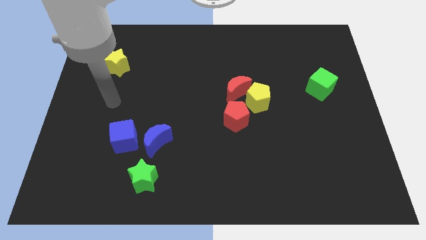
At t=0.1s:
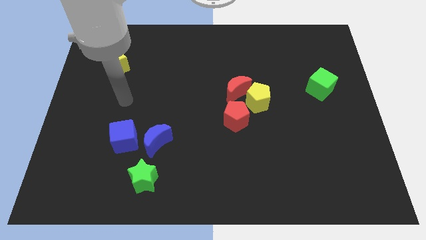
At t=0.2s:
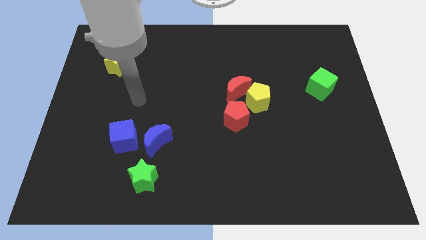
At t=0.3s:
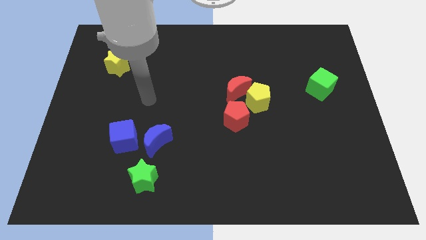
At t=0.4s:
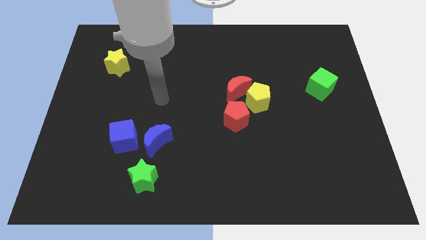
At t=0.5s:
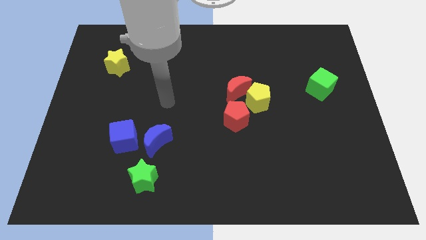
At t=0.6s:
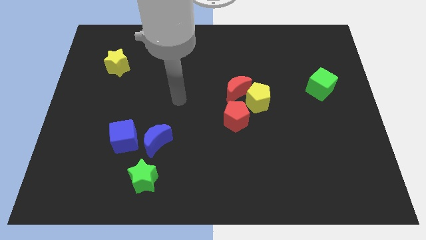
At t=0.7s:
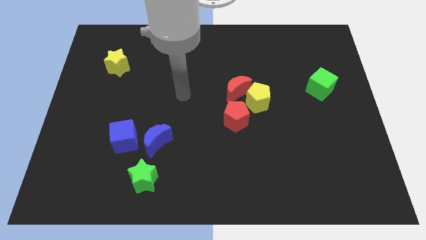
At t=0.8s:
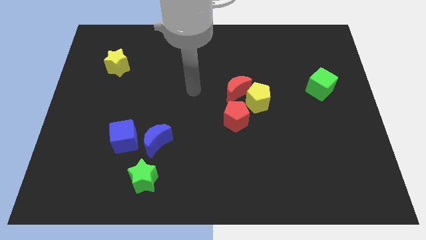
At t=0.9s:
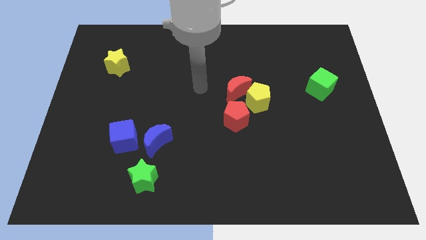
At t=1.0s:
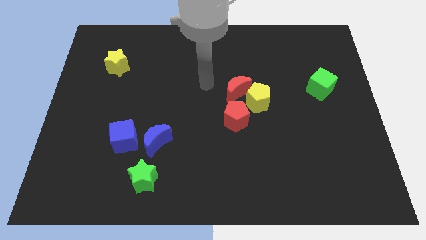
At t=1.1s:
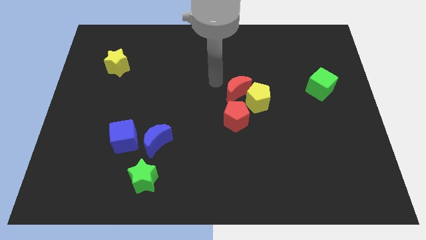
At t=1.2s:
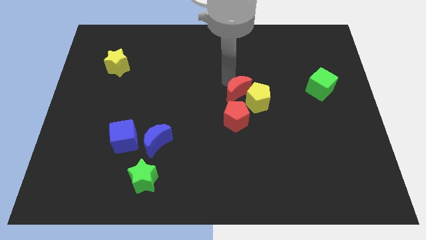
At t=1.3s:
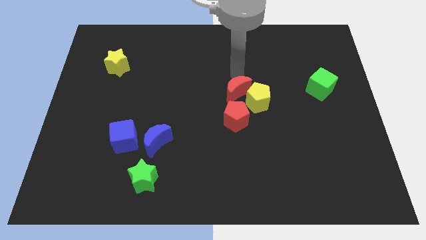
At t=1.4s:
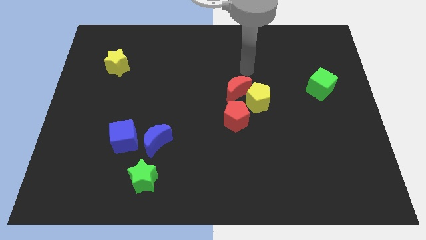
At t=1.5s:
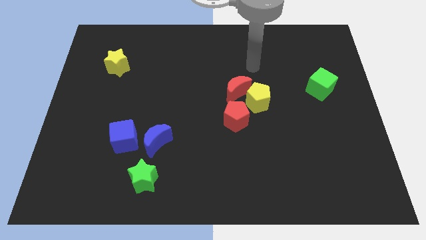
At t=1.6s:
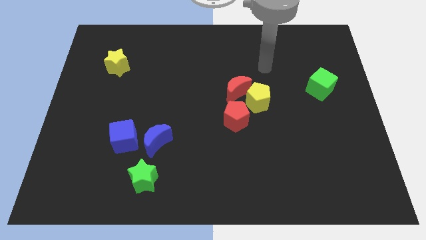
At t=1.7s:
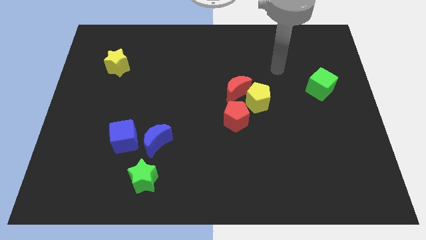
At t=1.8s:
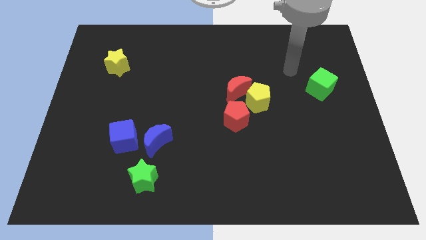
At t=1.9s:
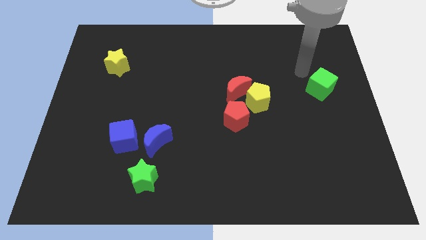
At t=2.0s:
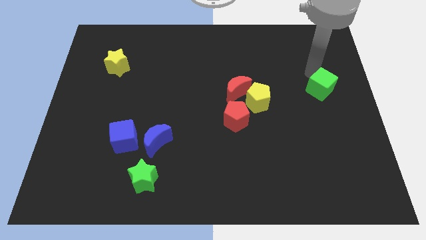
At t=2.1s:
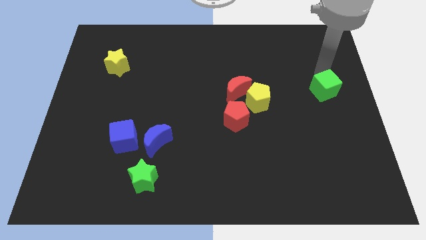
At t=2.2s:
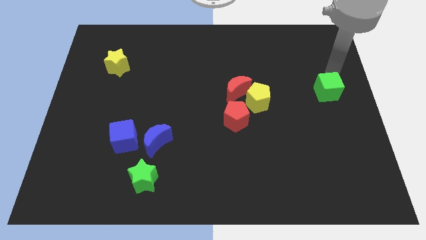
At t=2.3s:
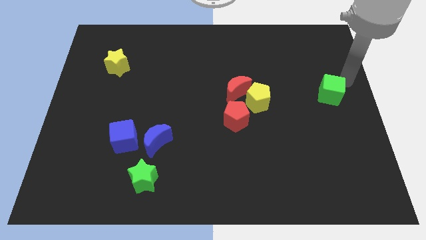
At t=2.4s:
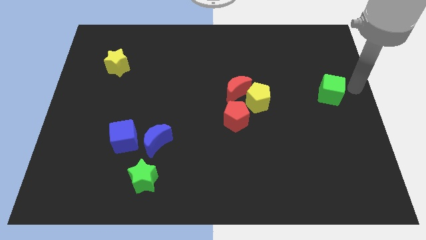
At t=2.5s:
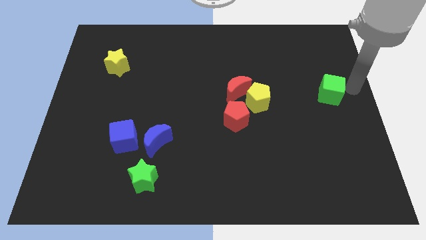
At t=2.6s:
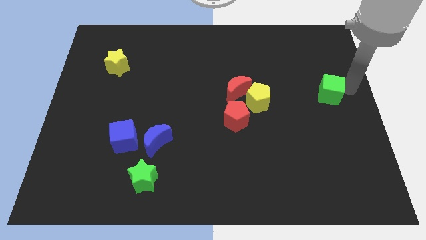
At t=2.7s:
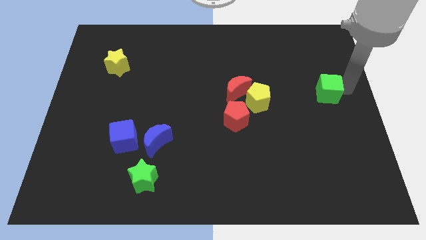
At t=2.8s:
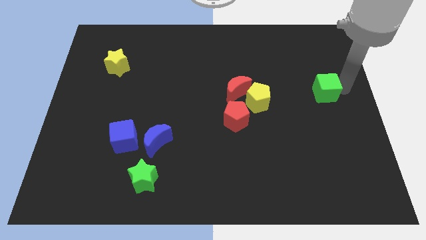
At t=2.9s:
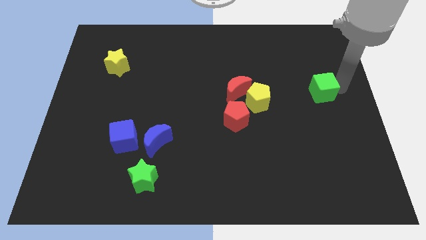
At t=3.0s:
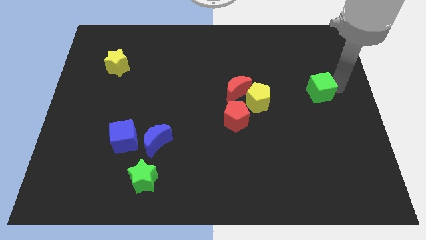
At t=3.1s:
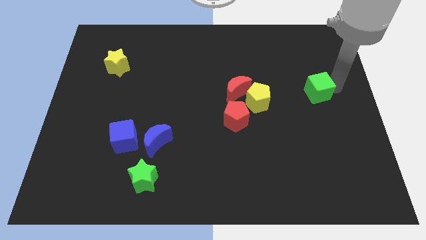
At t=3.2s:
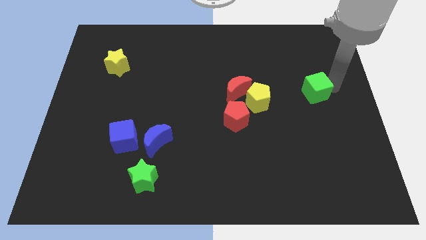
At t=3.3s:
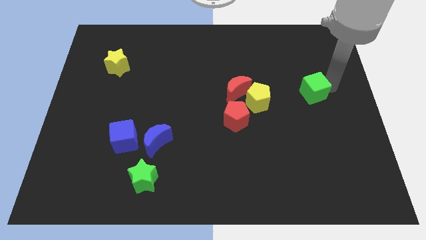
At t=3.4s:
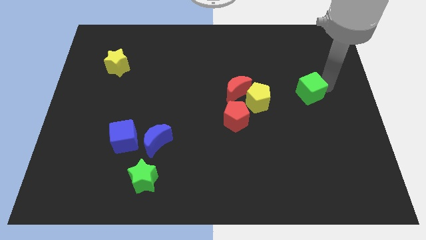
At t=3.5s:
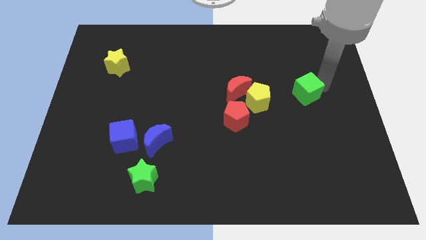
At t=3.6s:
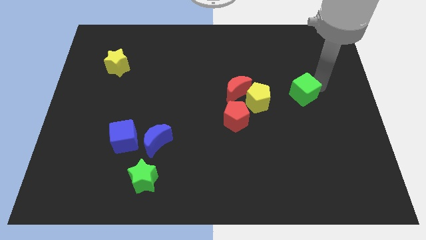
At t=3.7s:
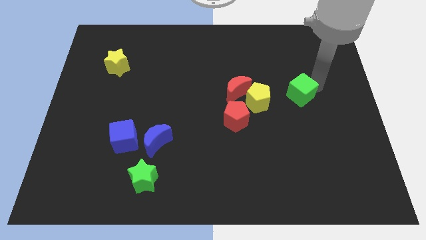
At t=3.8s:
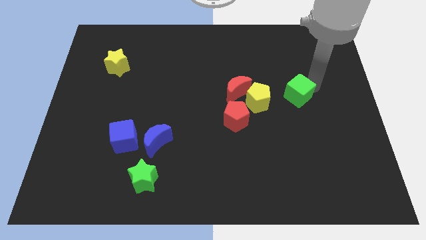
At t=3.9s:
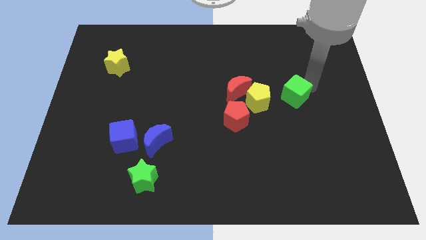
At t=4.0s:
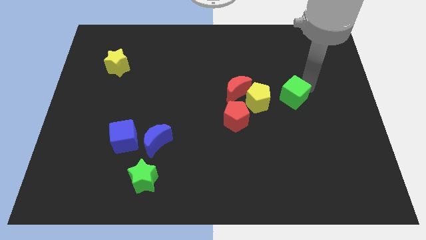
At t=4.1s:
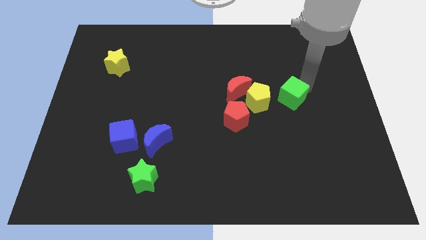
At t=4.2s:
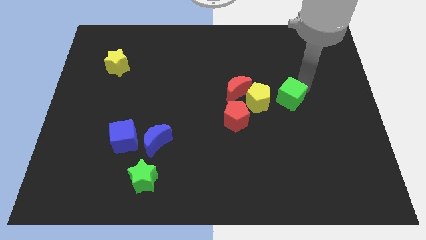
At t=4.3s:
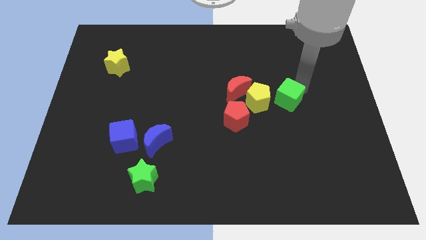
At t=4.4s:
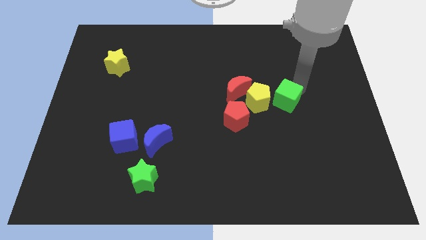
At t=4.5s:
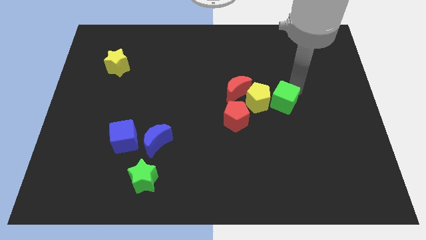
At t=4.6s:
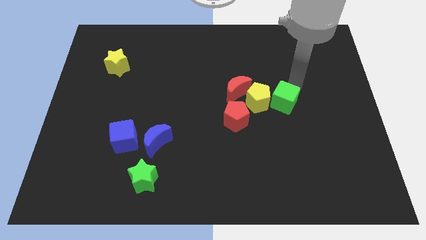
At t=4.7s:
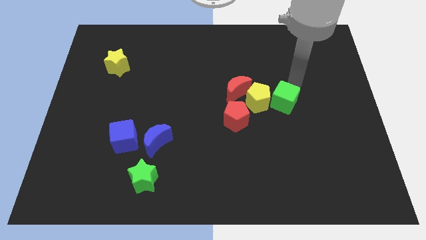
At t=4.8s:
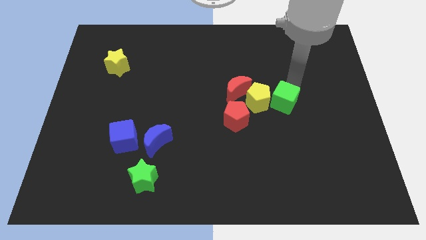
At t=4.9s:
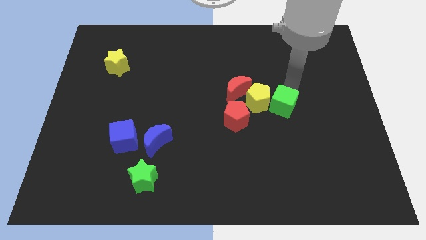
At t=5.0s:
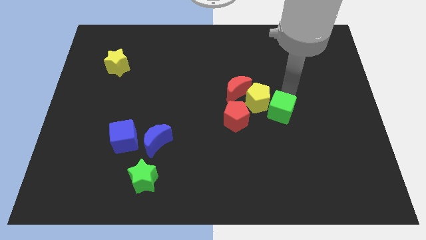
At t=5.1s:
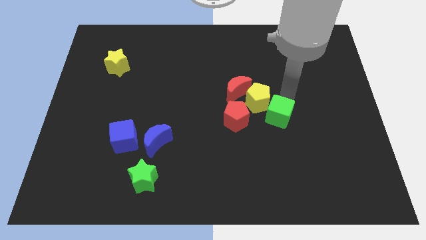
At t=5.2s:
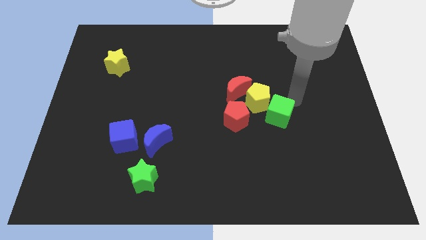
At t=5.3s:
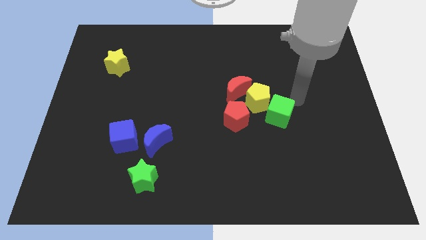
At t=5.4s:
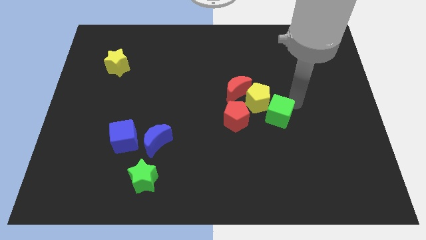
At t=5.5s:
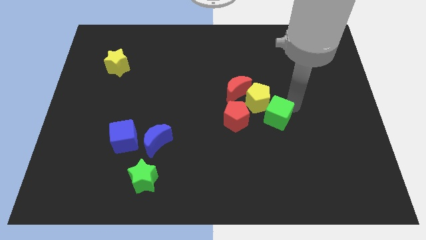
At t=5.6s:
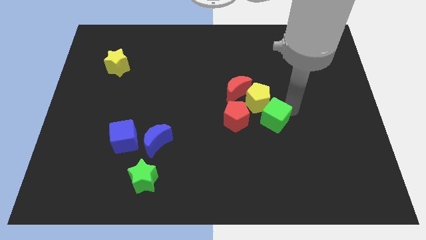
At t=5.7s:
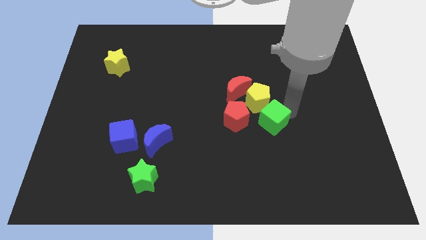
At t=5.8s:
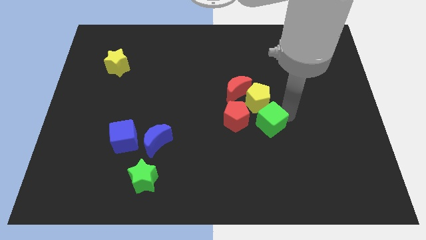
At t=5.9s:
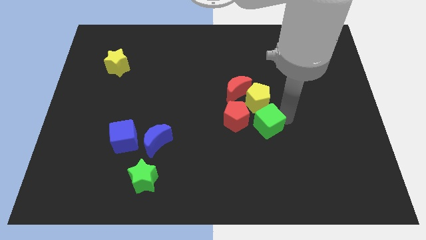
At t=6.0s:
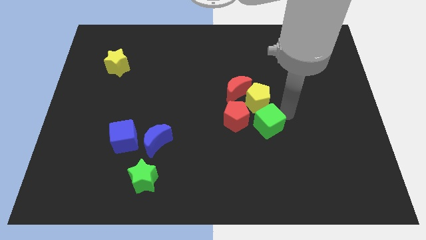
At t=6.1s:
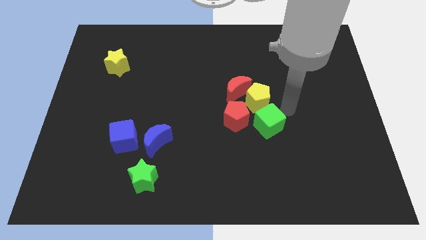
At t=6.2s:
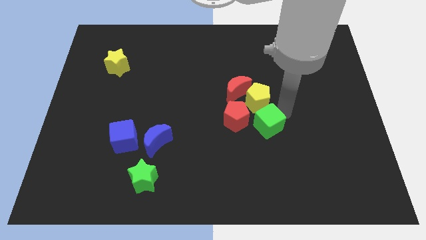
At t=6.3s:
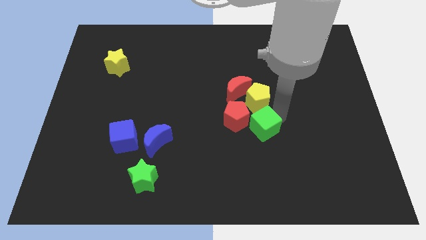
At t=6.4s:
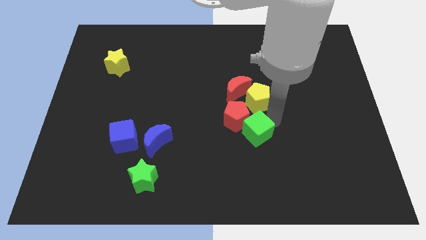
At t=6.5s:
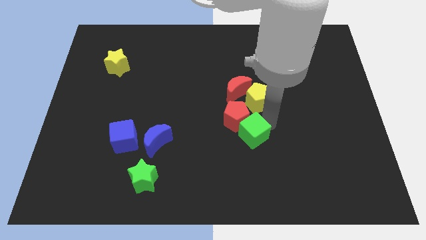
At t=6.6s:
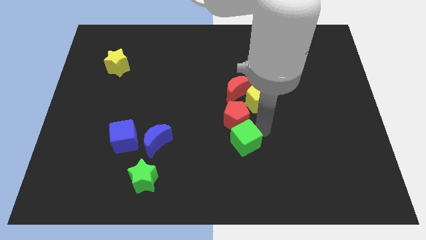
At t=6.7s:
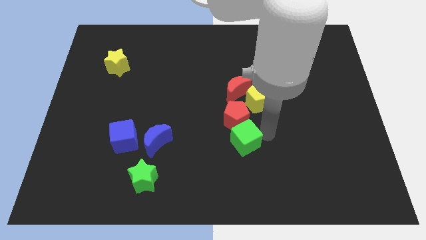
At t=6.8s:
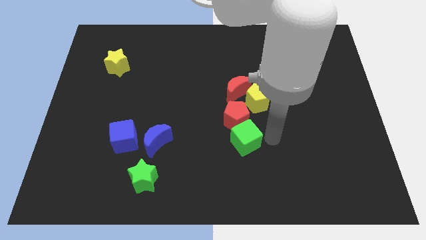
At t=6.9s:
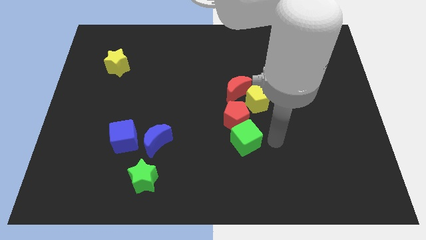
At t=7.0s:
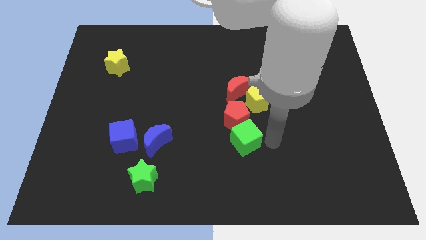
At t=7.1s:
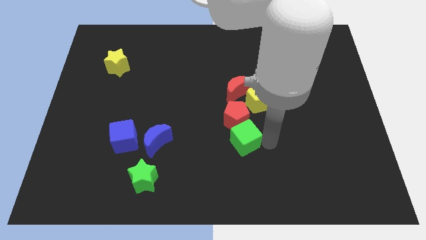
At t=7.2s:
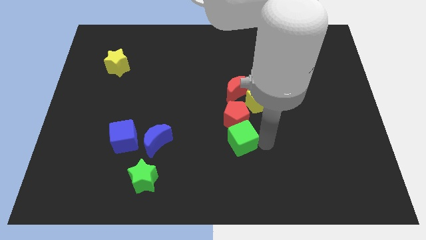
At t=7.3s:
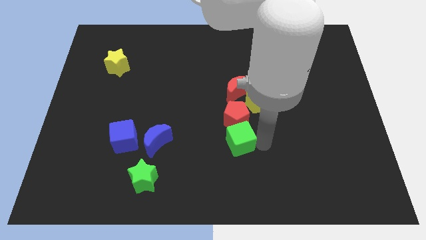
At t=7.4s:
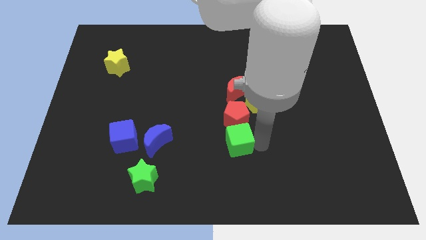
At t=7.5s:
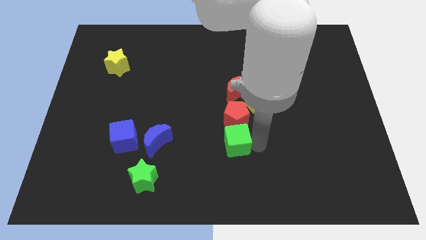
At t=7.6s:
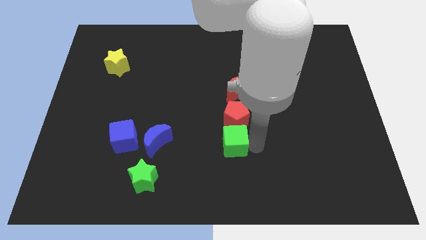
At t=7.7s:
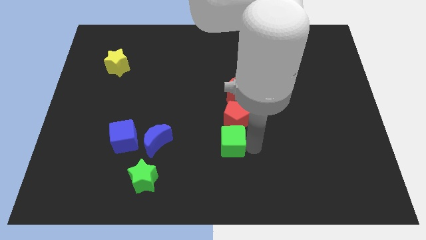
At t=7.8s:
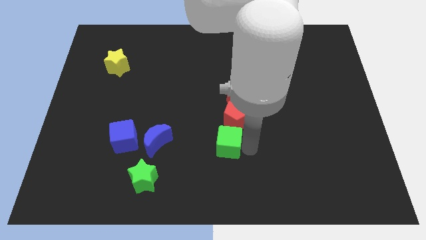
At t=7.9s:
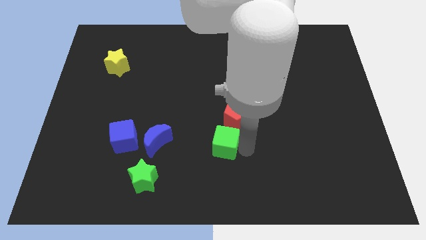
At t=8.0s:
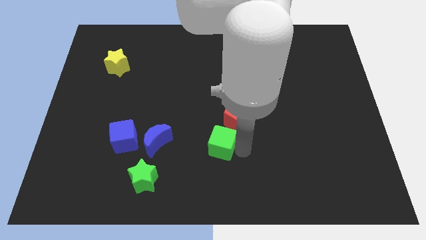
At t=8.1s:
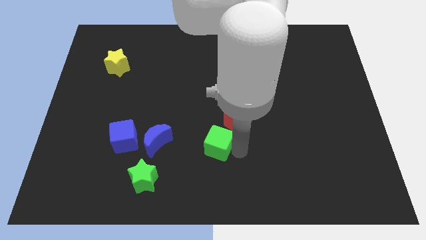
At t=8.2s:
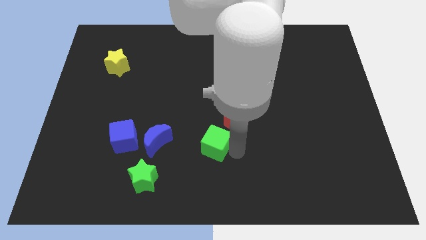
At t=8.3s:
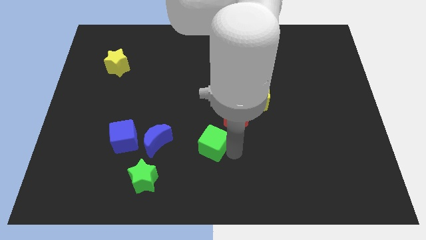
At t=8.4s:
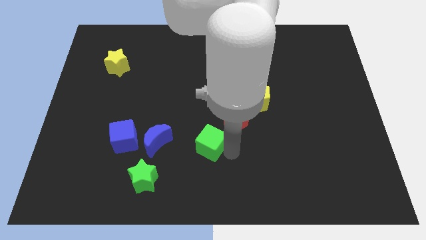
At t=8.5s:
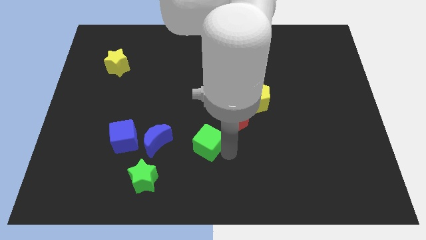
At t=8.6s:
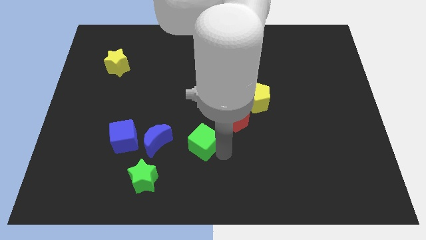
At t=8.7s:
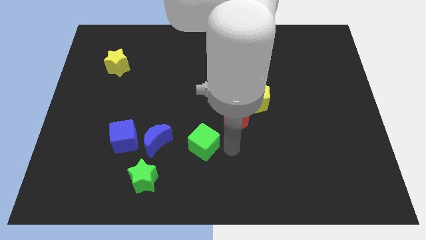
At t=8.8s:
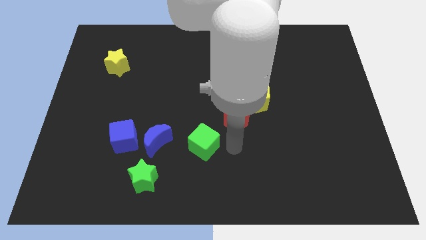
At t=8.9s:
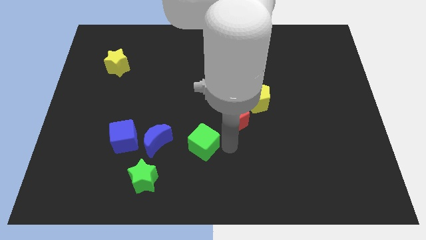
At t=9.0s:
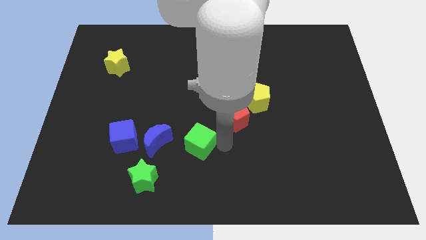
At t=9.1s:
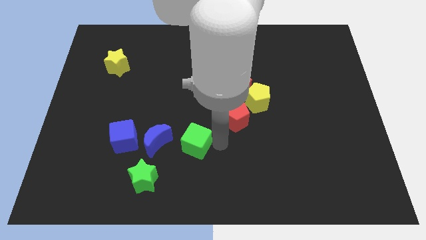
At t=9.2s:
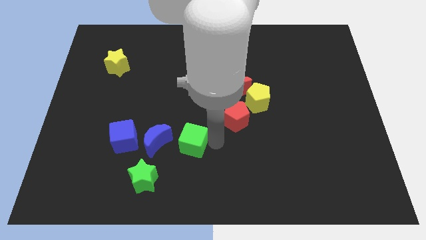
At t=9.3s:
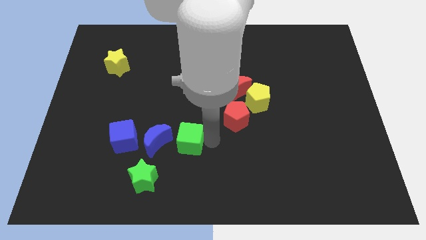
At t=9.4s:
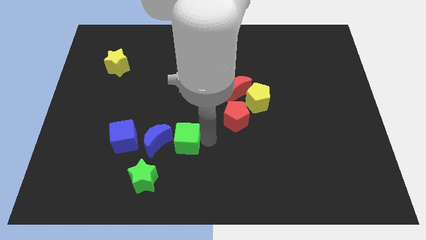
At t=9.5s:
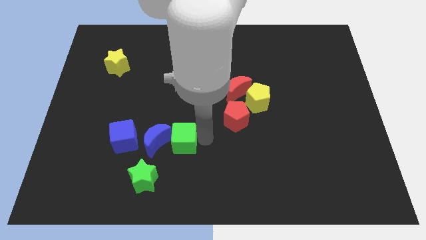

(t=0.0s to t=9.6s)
slide the green cube close to the blue moon
